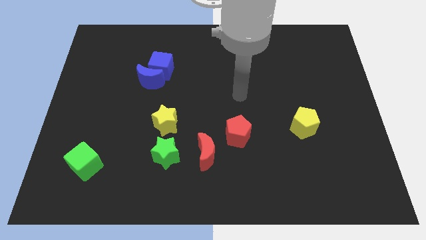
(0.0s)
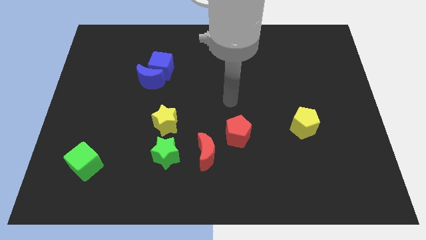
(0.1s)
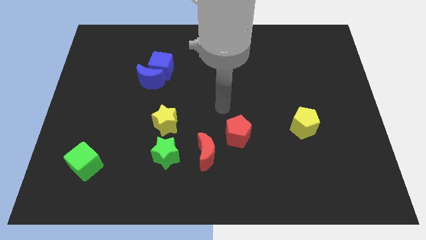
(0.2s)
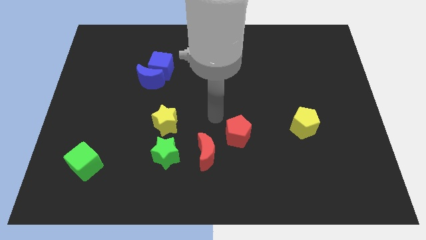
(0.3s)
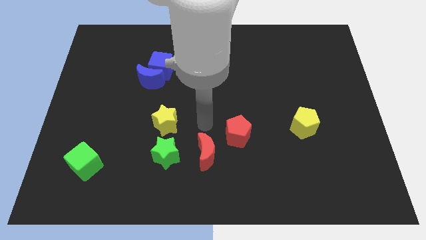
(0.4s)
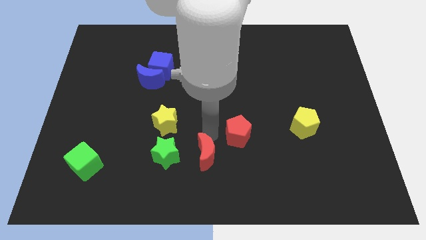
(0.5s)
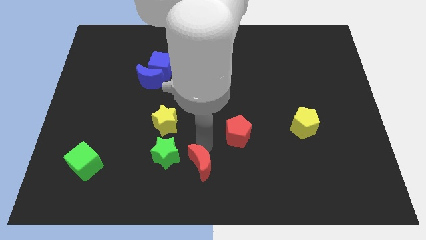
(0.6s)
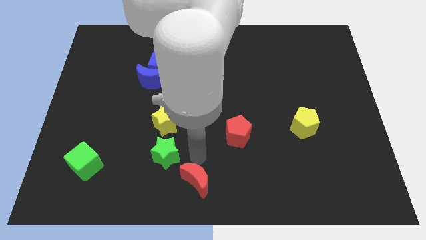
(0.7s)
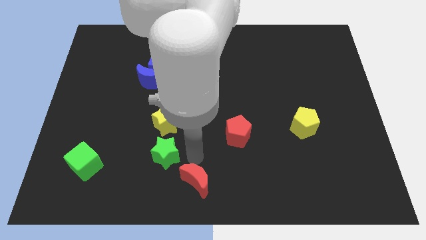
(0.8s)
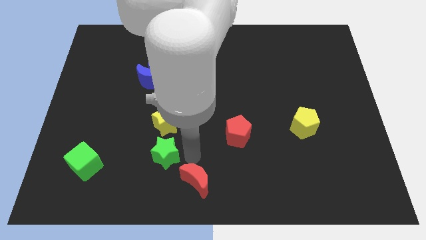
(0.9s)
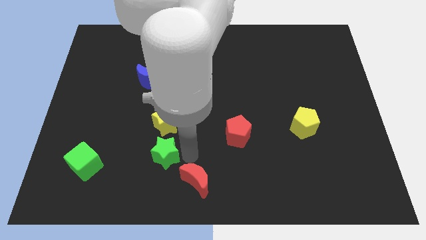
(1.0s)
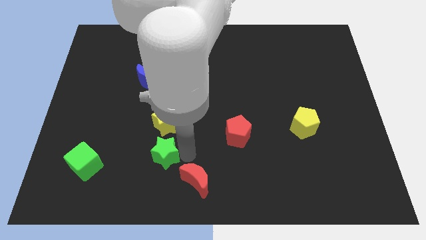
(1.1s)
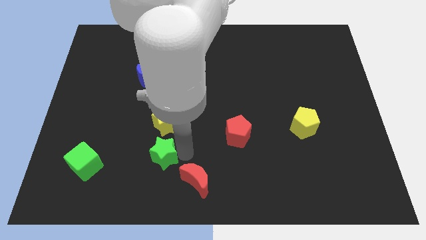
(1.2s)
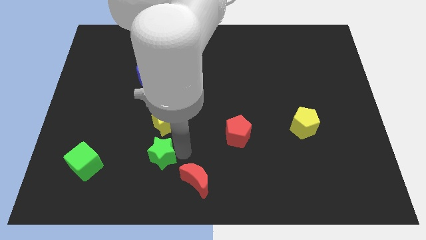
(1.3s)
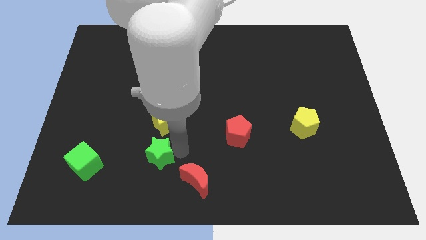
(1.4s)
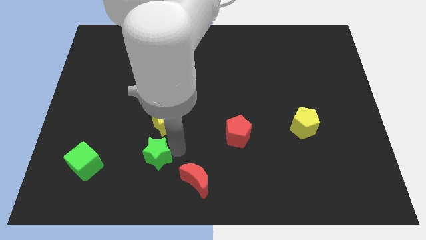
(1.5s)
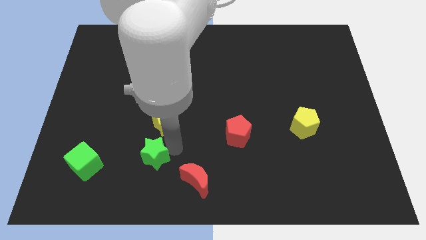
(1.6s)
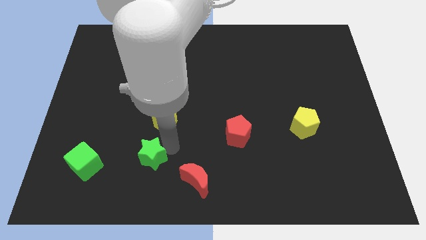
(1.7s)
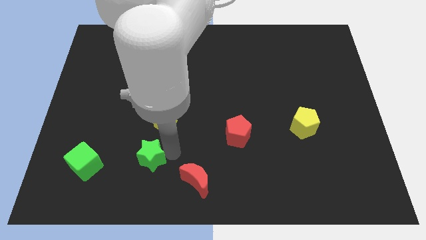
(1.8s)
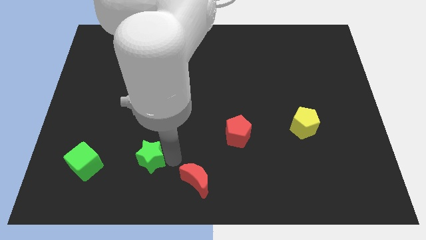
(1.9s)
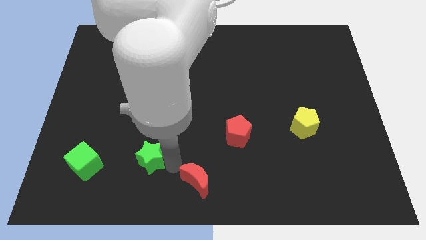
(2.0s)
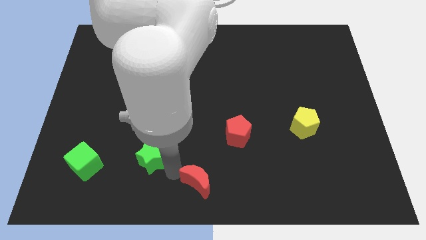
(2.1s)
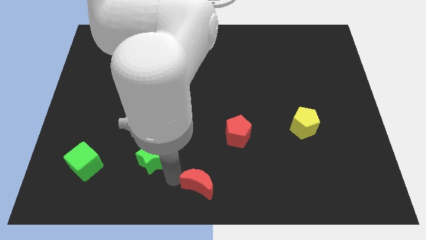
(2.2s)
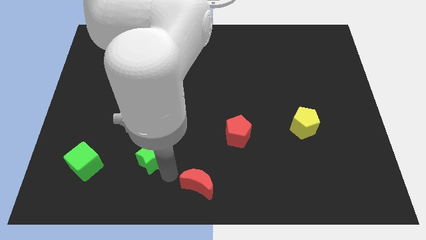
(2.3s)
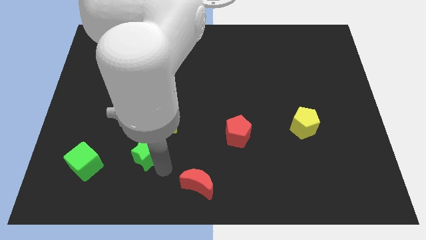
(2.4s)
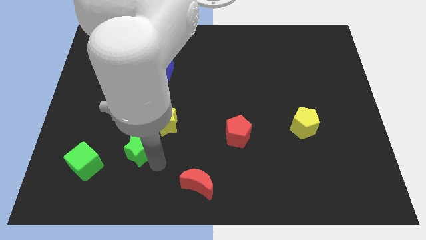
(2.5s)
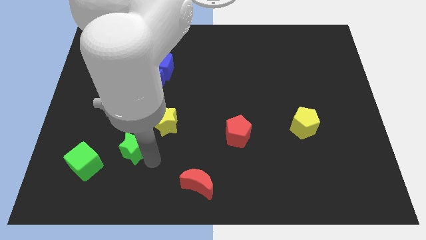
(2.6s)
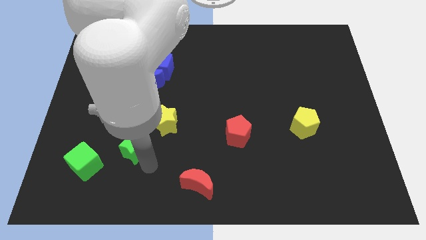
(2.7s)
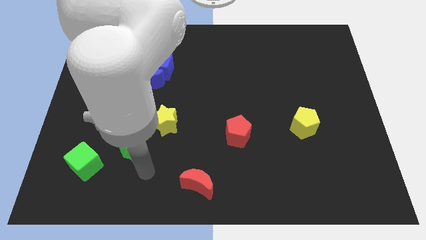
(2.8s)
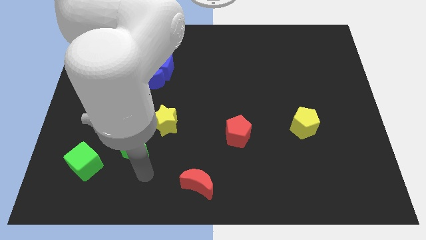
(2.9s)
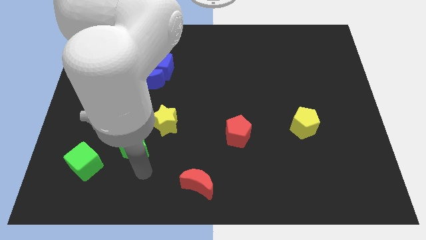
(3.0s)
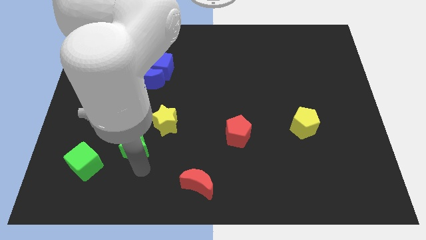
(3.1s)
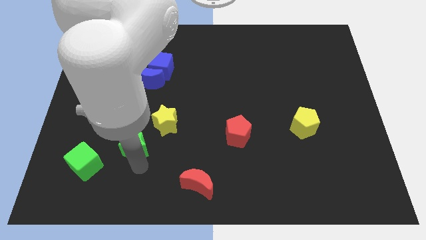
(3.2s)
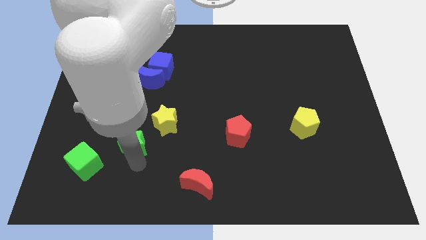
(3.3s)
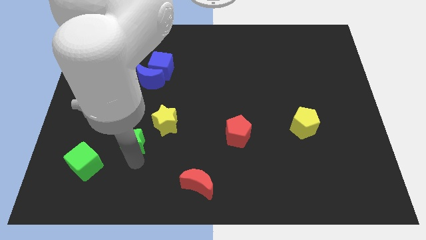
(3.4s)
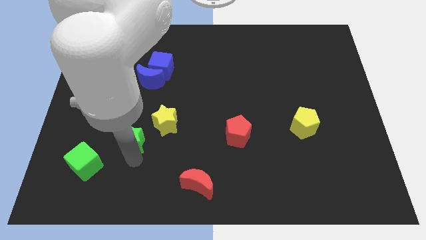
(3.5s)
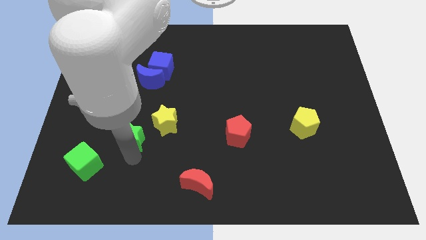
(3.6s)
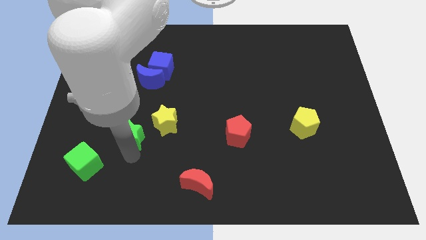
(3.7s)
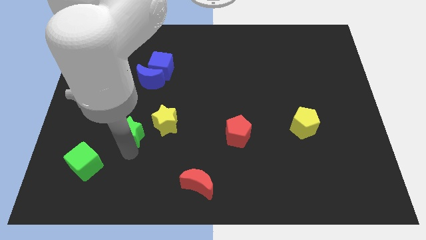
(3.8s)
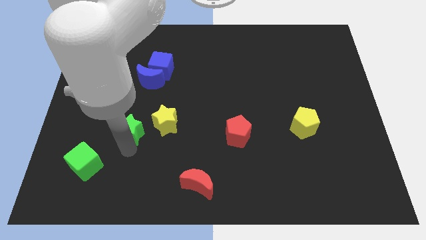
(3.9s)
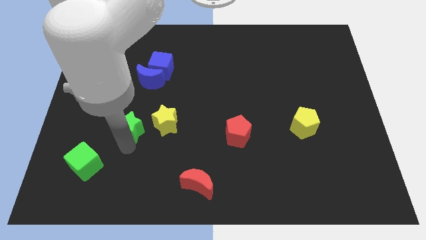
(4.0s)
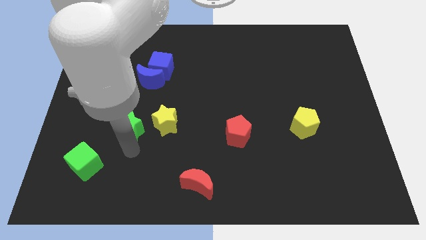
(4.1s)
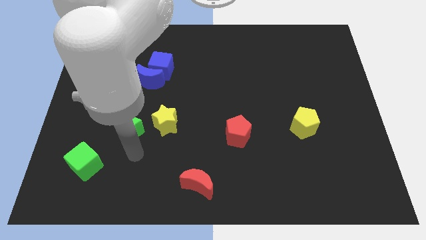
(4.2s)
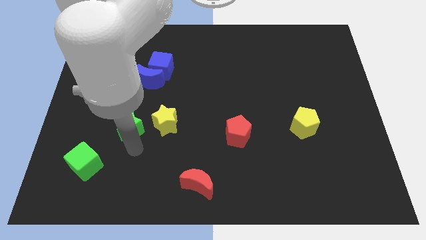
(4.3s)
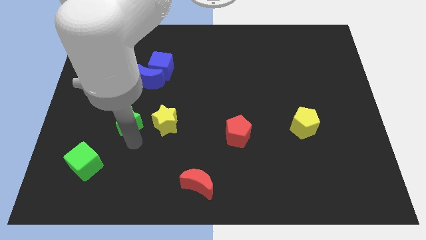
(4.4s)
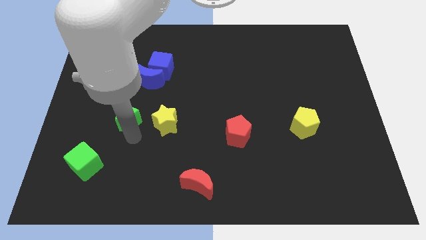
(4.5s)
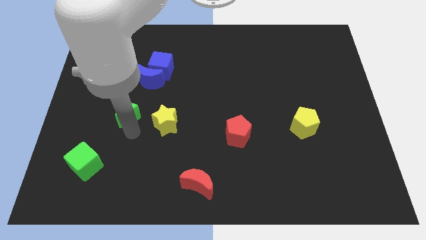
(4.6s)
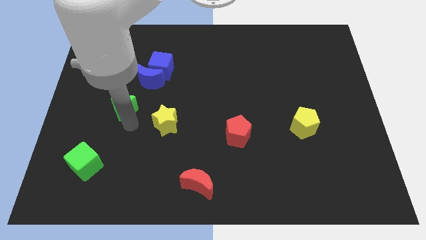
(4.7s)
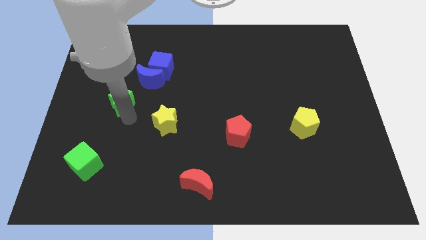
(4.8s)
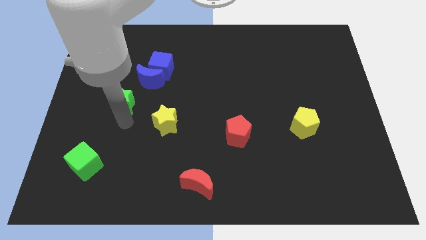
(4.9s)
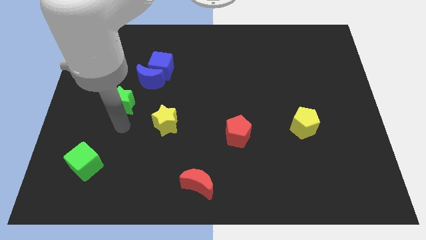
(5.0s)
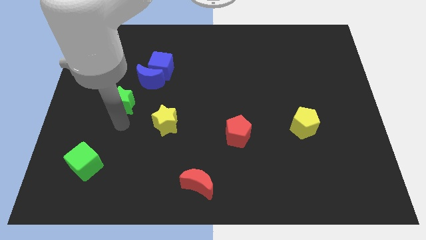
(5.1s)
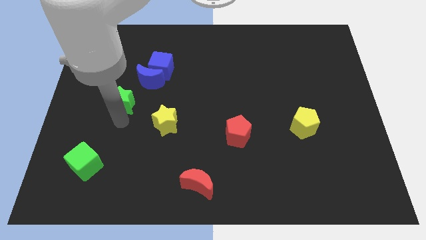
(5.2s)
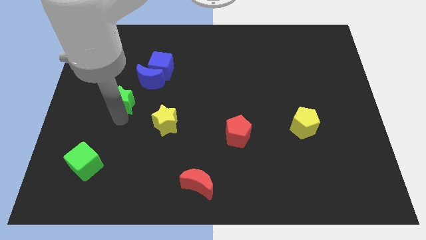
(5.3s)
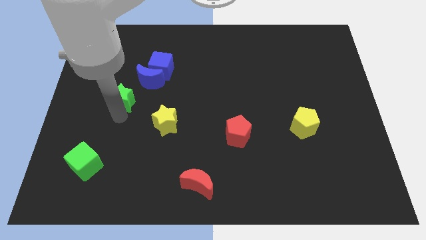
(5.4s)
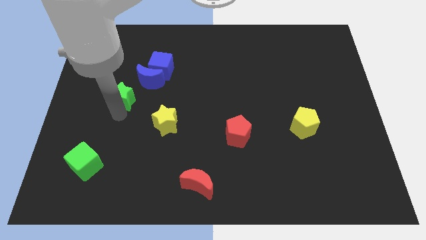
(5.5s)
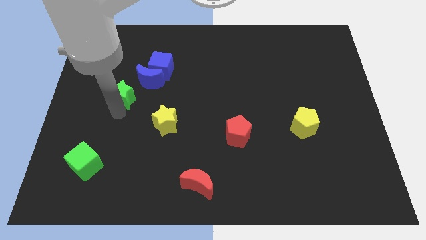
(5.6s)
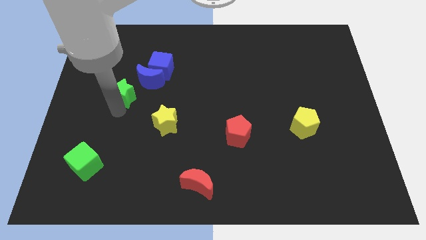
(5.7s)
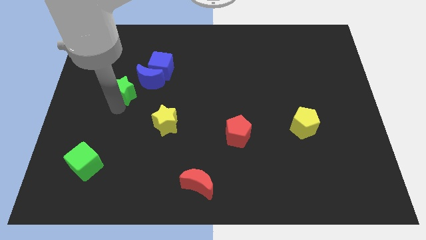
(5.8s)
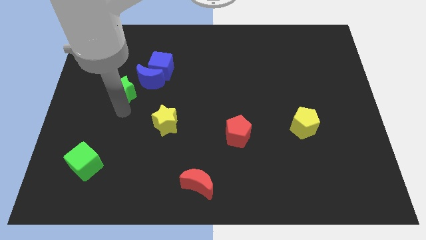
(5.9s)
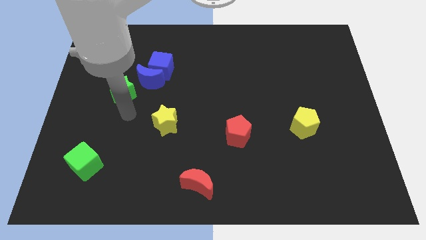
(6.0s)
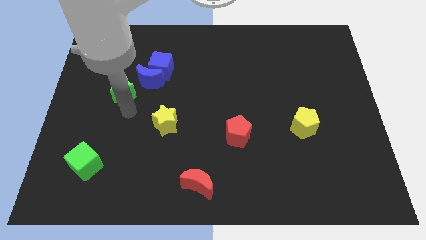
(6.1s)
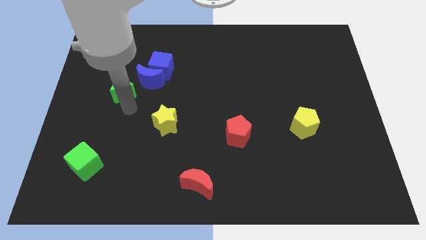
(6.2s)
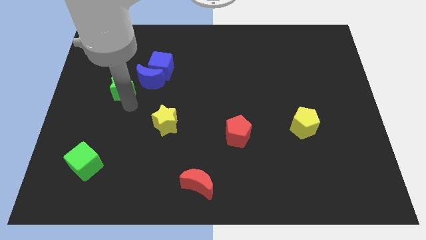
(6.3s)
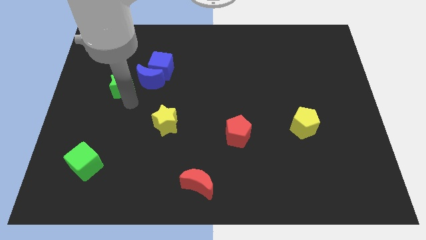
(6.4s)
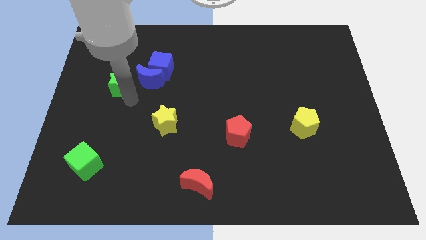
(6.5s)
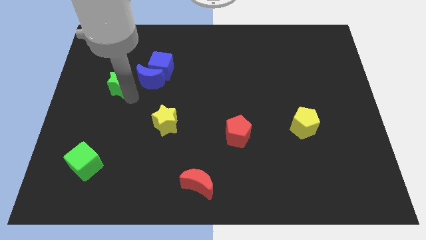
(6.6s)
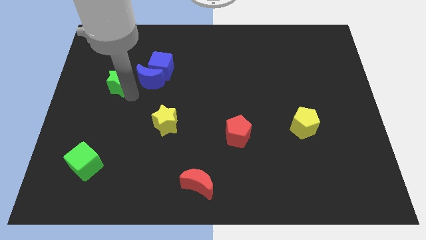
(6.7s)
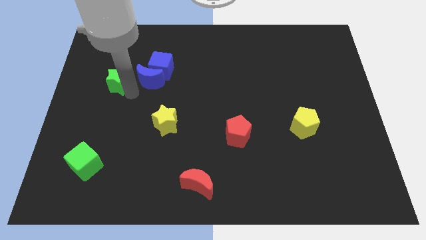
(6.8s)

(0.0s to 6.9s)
put the green star left of the blue cube

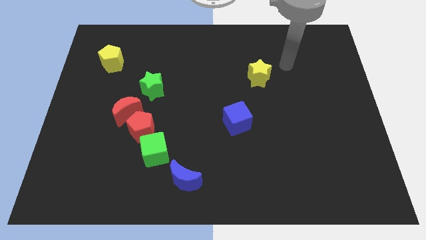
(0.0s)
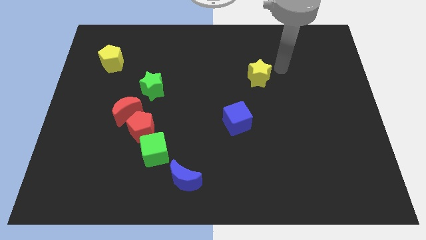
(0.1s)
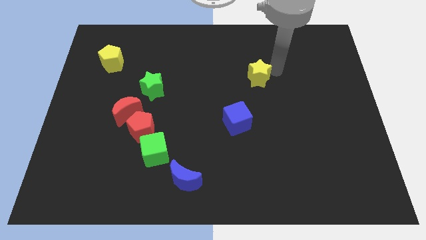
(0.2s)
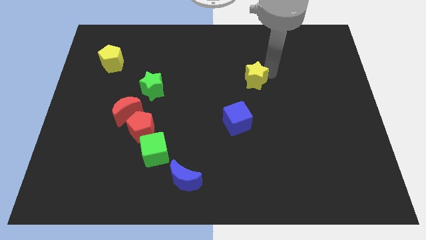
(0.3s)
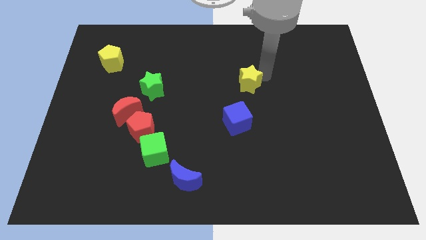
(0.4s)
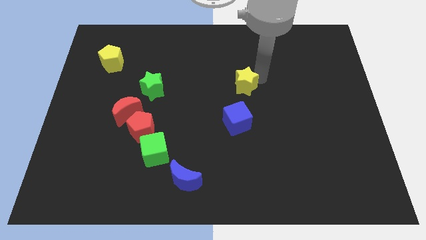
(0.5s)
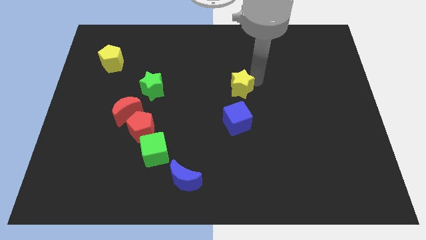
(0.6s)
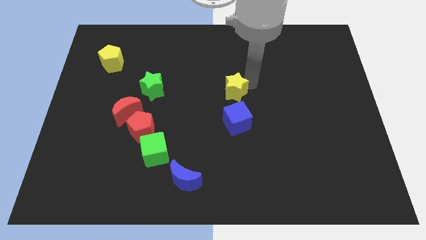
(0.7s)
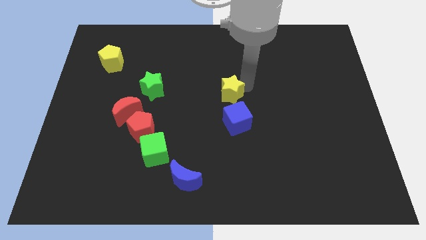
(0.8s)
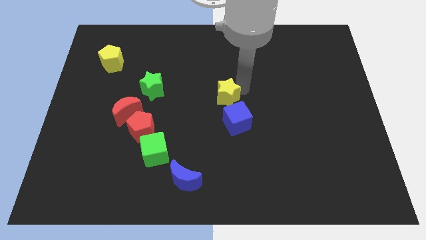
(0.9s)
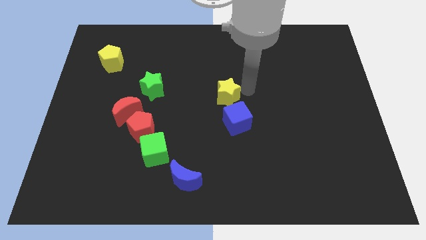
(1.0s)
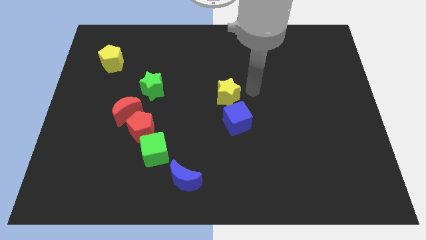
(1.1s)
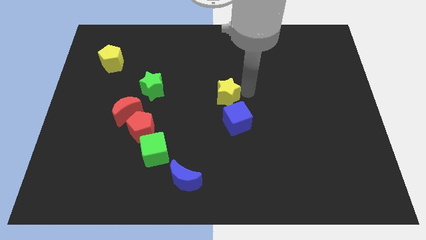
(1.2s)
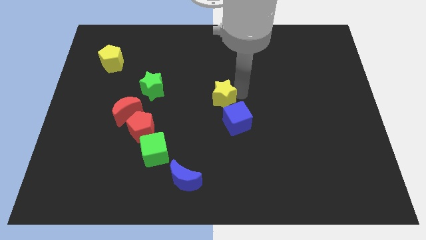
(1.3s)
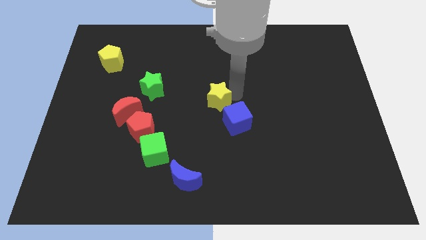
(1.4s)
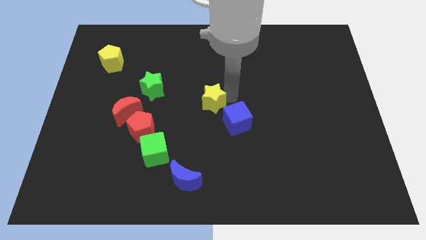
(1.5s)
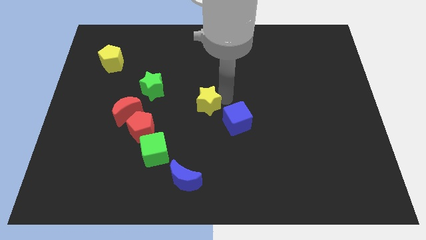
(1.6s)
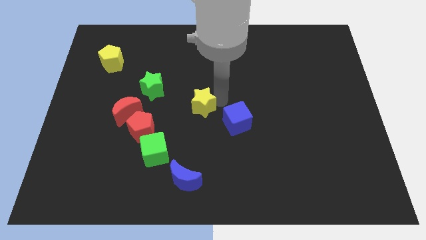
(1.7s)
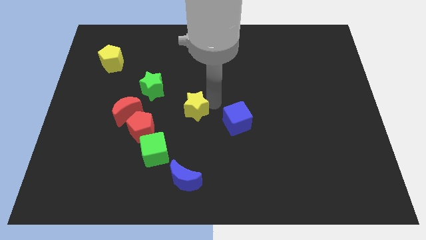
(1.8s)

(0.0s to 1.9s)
put the yellow star to the right side of the red moon
